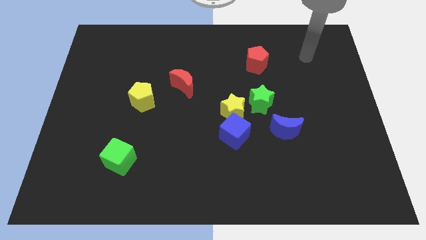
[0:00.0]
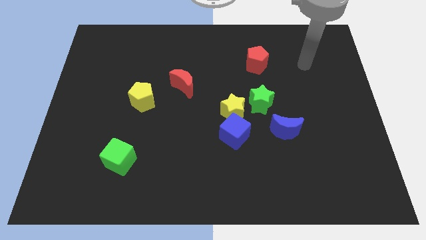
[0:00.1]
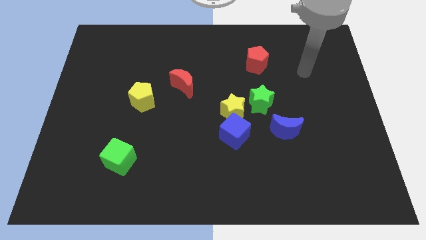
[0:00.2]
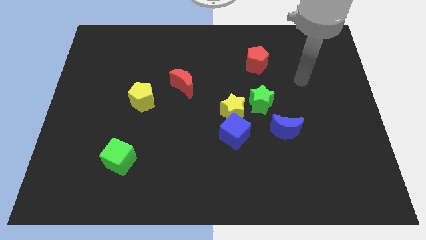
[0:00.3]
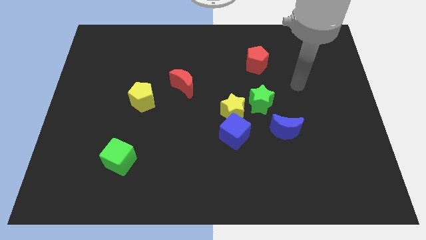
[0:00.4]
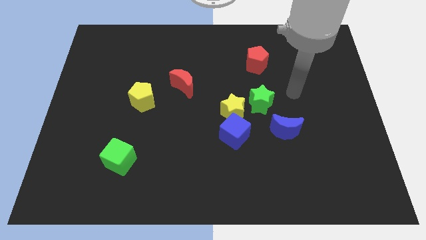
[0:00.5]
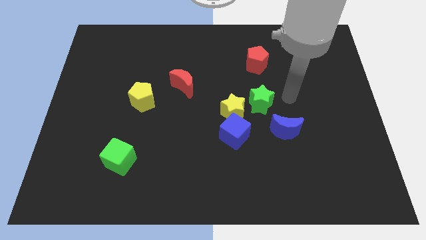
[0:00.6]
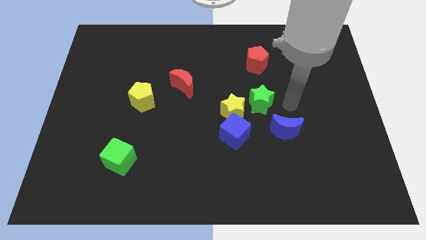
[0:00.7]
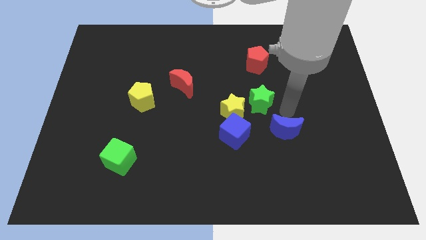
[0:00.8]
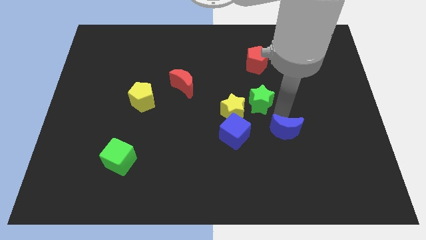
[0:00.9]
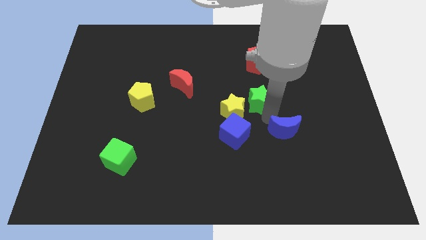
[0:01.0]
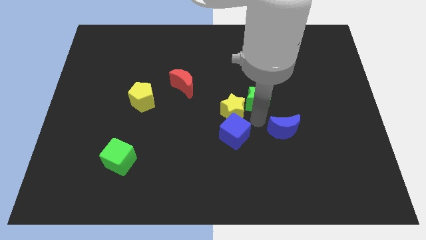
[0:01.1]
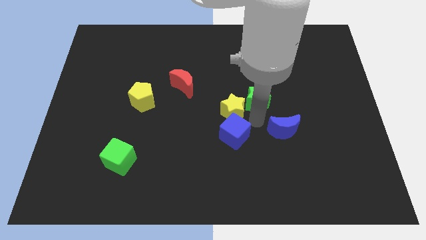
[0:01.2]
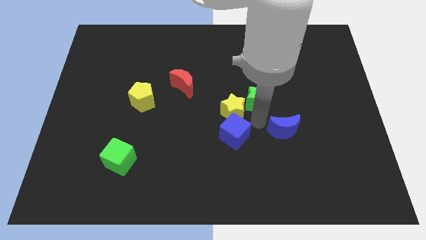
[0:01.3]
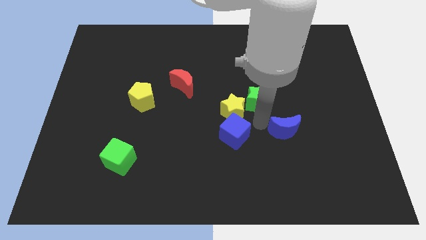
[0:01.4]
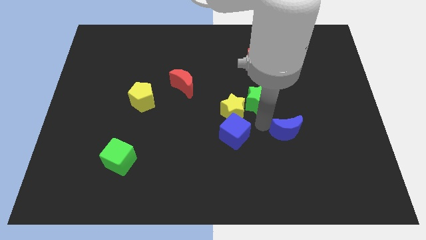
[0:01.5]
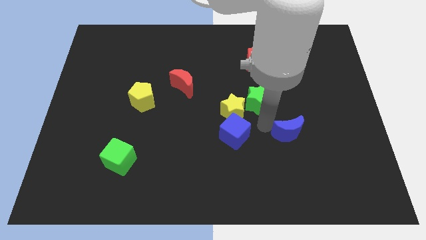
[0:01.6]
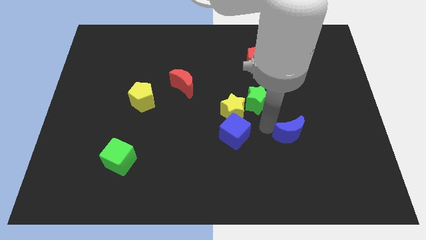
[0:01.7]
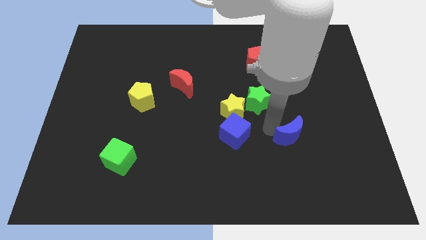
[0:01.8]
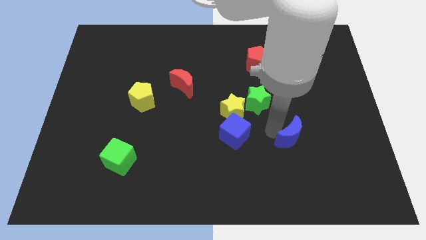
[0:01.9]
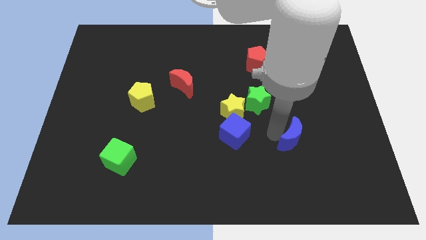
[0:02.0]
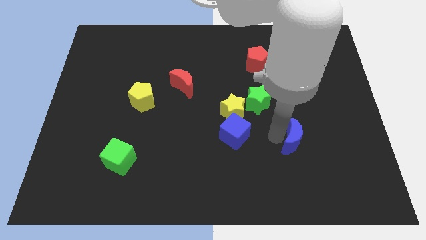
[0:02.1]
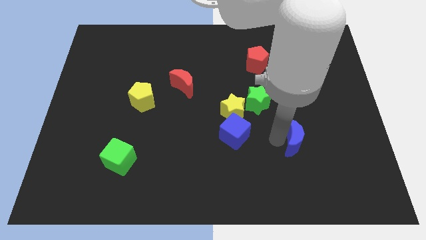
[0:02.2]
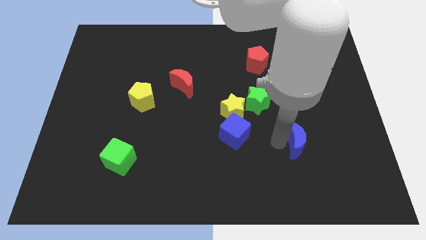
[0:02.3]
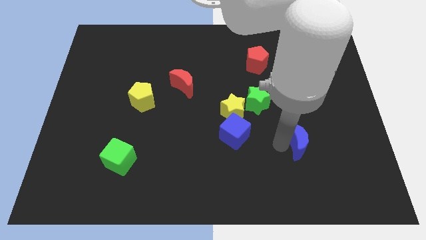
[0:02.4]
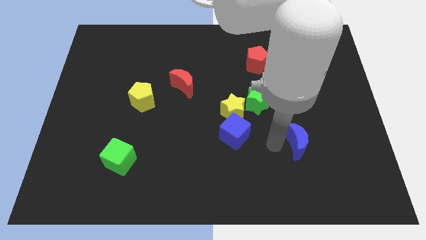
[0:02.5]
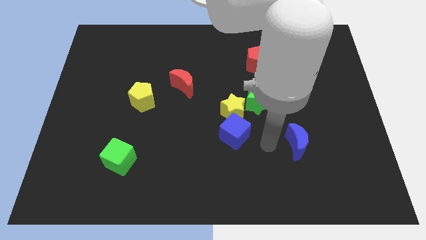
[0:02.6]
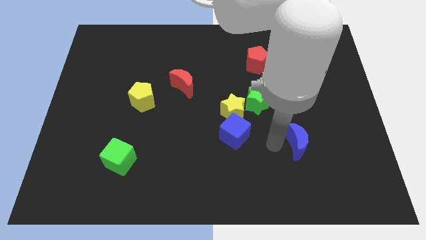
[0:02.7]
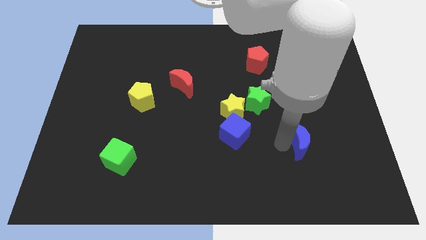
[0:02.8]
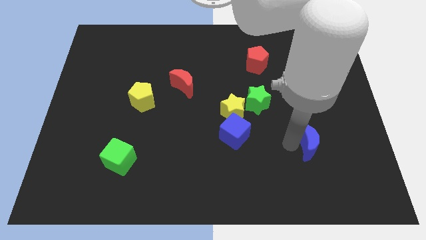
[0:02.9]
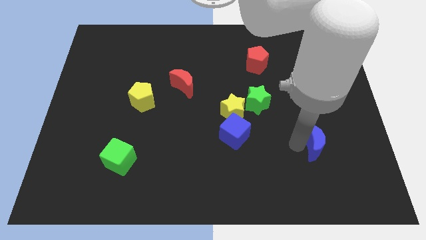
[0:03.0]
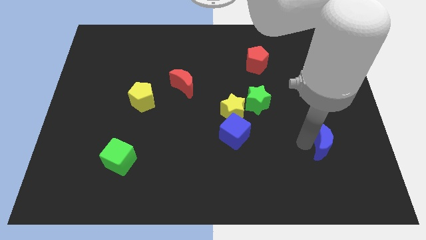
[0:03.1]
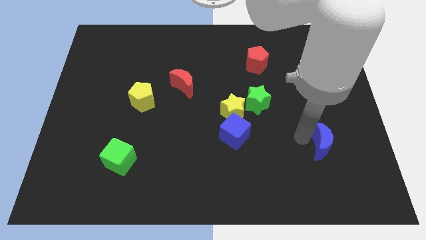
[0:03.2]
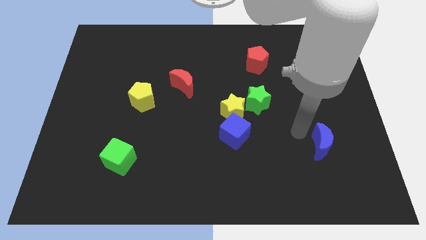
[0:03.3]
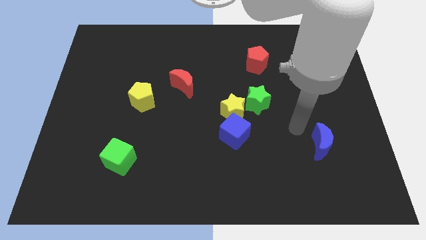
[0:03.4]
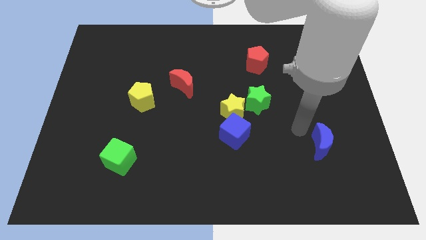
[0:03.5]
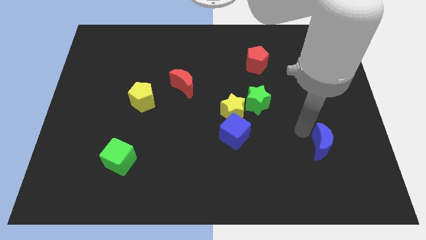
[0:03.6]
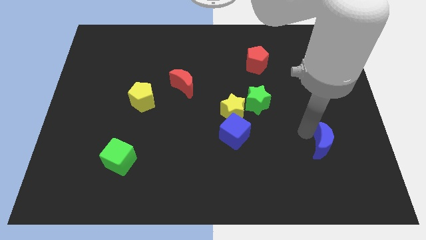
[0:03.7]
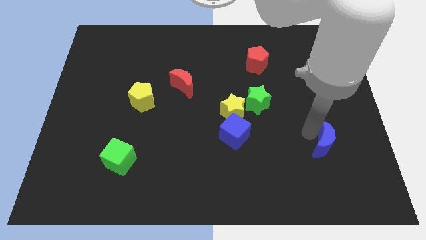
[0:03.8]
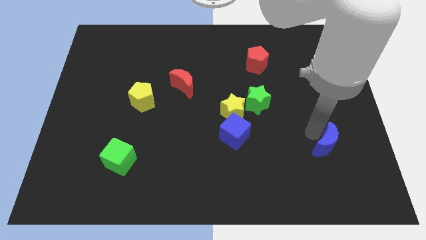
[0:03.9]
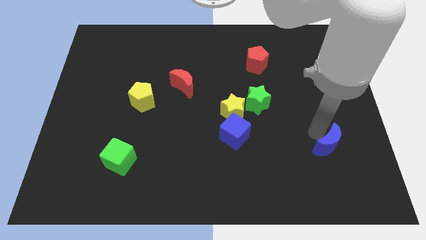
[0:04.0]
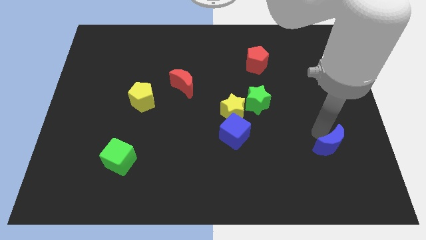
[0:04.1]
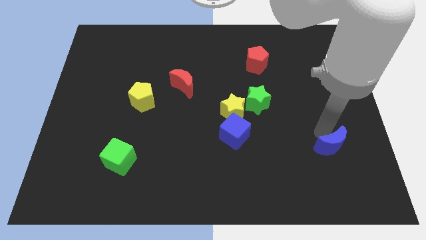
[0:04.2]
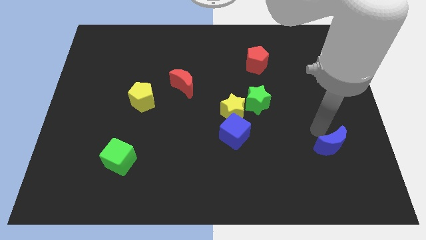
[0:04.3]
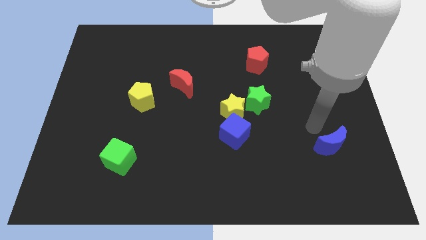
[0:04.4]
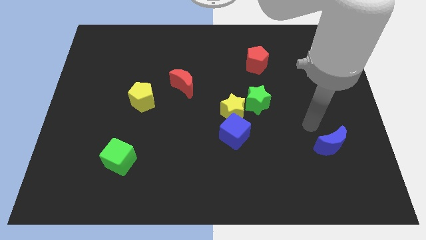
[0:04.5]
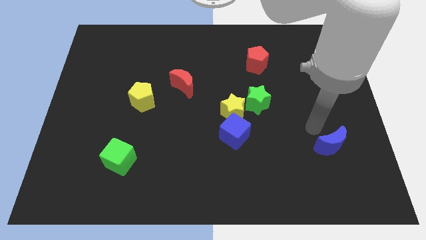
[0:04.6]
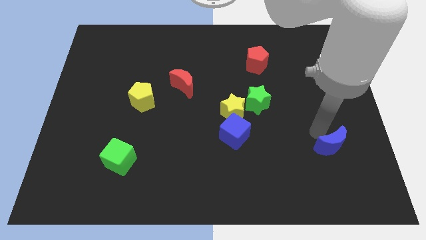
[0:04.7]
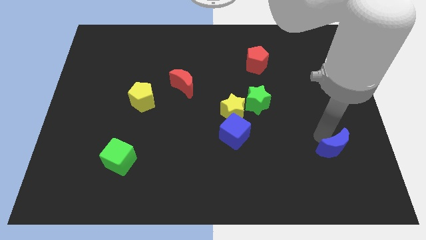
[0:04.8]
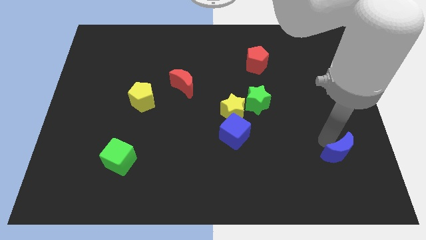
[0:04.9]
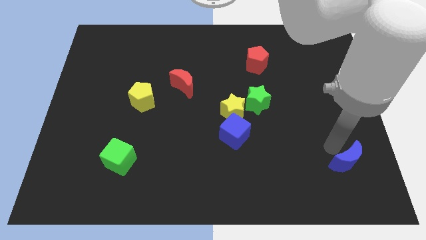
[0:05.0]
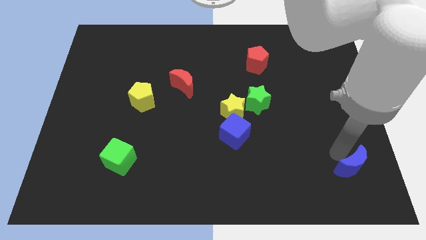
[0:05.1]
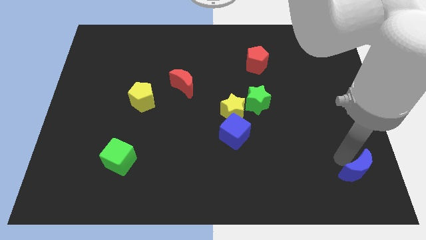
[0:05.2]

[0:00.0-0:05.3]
slide the blue moon to the bottom right of the board

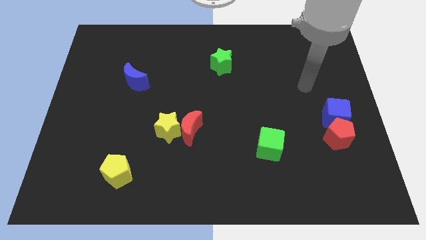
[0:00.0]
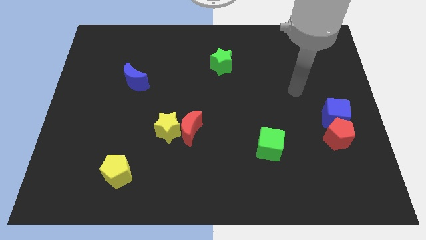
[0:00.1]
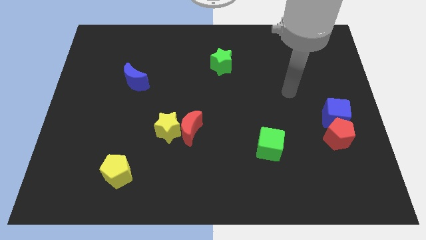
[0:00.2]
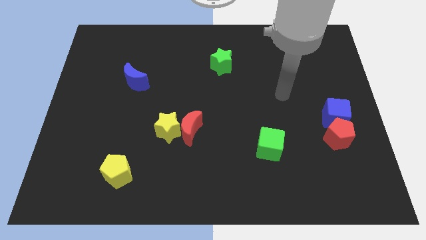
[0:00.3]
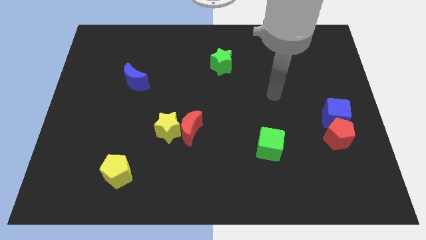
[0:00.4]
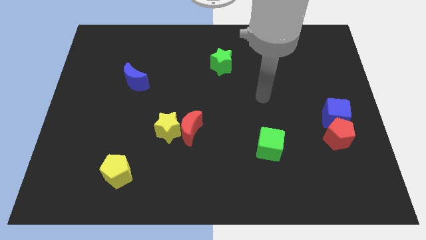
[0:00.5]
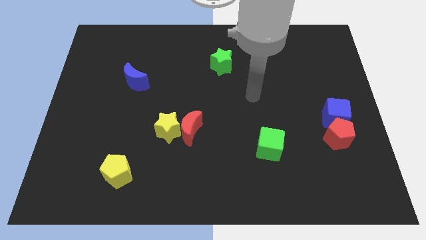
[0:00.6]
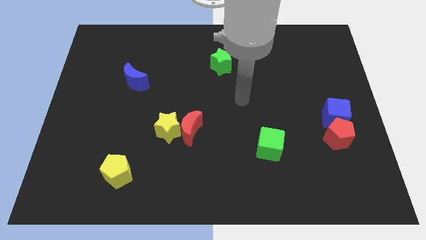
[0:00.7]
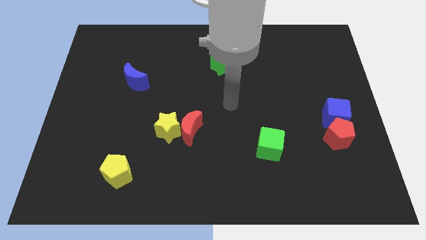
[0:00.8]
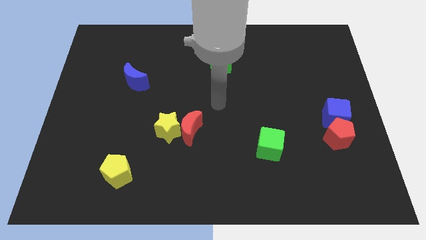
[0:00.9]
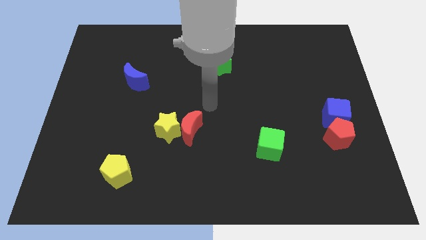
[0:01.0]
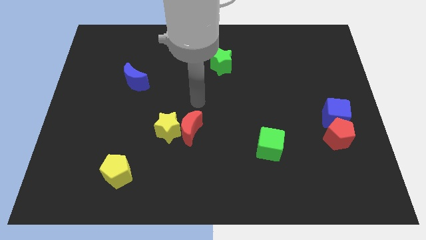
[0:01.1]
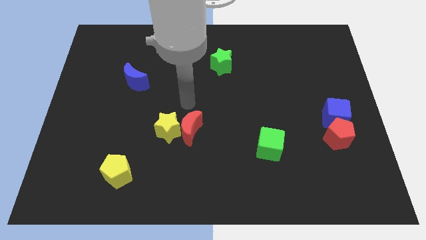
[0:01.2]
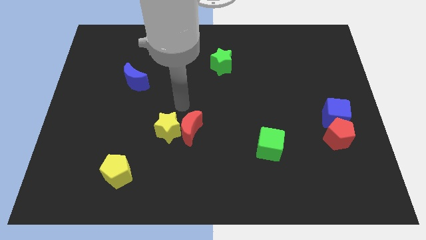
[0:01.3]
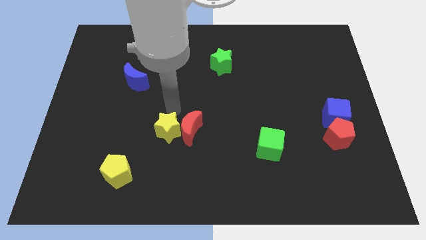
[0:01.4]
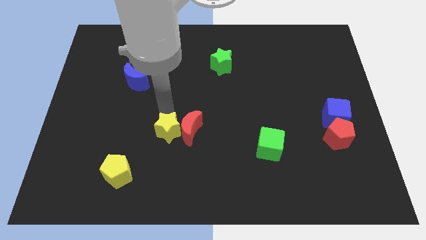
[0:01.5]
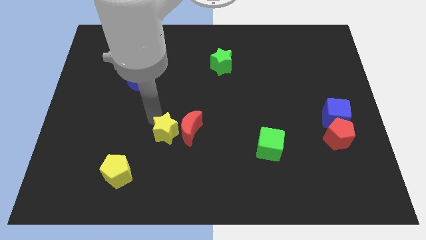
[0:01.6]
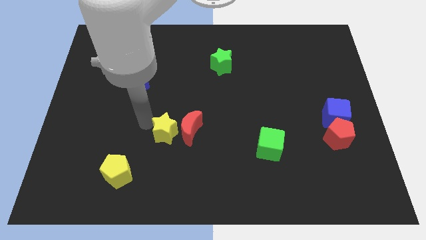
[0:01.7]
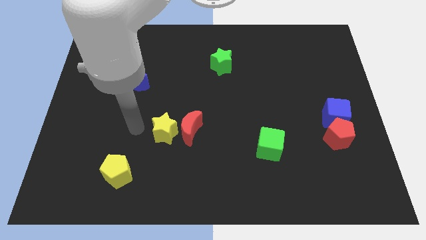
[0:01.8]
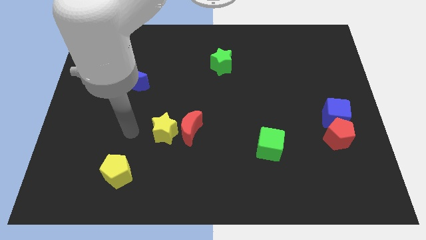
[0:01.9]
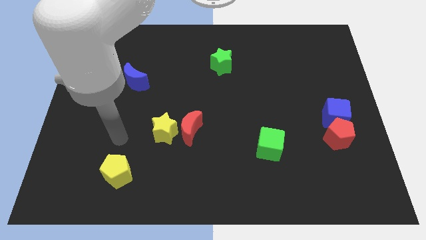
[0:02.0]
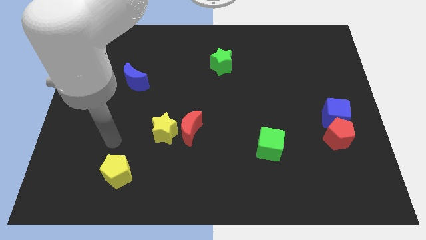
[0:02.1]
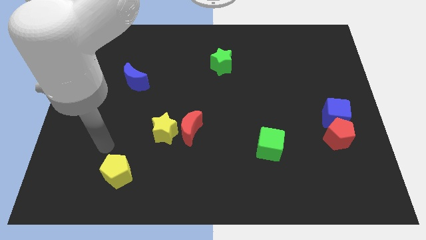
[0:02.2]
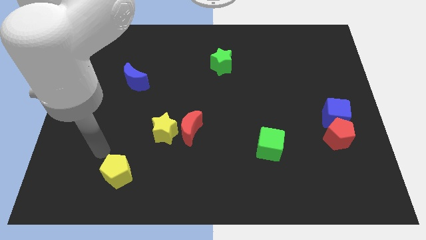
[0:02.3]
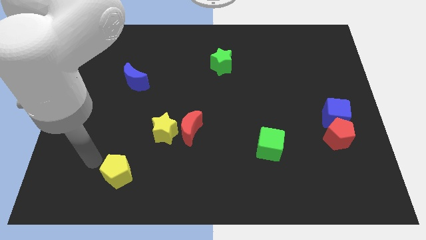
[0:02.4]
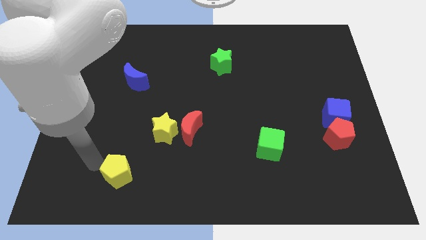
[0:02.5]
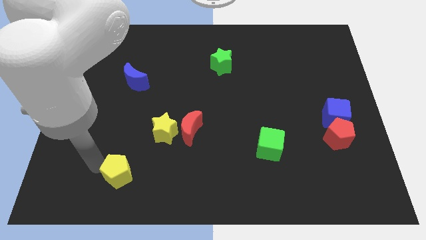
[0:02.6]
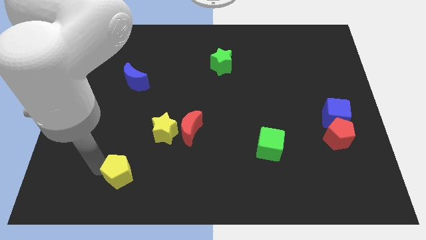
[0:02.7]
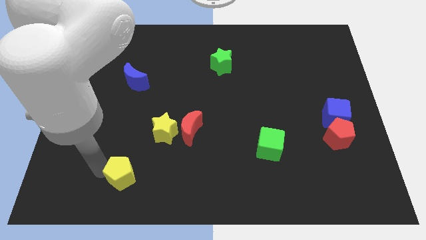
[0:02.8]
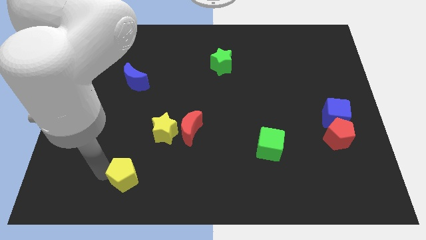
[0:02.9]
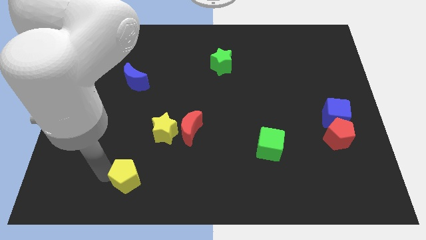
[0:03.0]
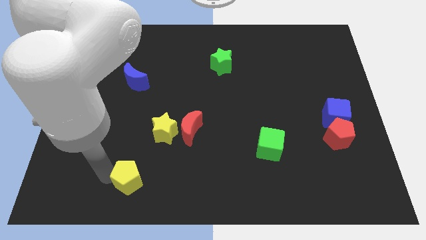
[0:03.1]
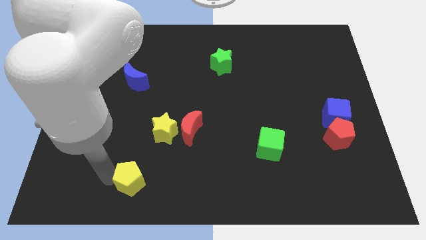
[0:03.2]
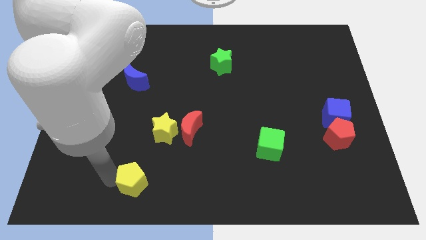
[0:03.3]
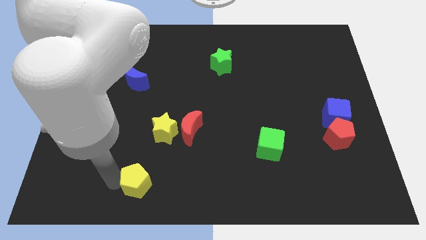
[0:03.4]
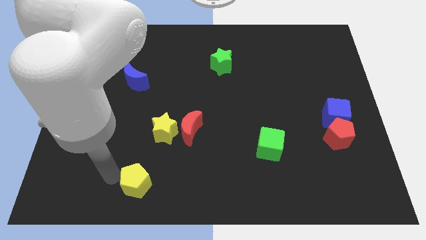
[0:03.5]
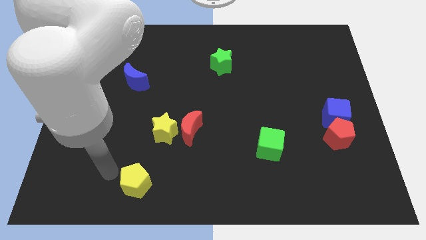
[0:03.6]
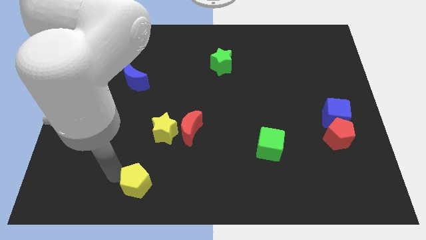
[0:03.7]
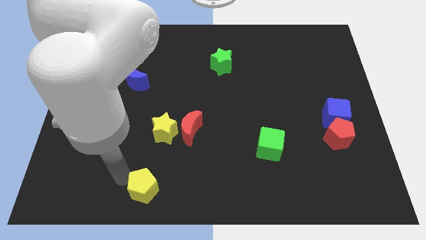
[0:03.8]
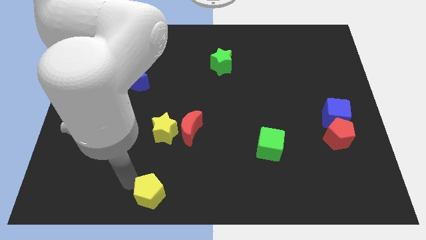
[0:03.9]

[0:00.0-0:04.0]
move the yellow pentagon to the bottom side
